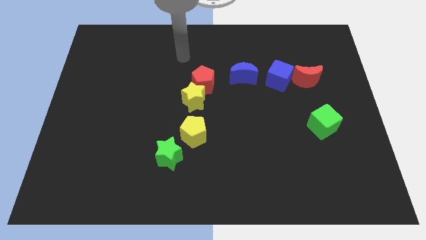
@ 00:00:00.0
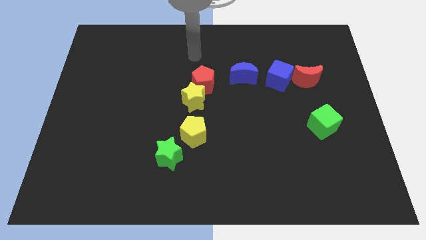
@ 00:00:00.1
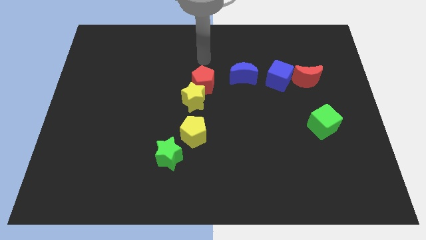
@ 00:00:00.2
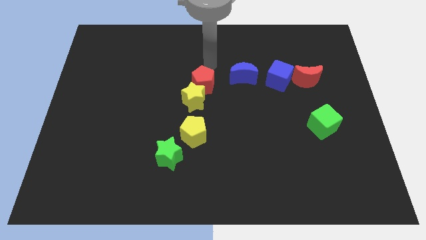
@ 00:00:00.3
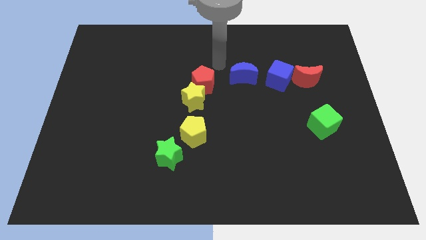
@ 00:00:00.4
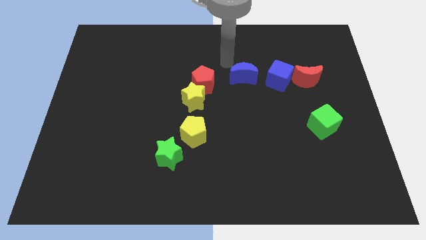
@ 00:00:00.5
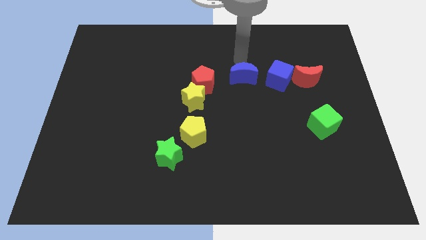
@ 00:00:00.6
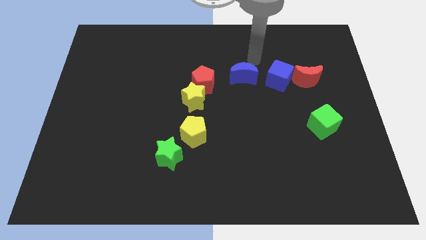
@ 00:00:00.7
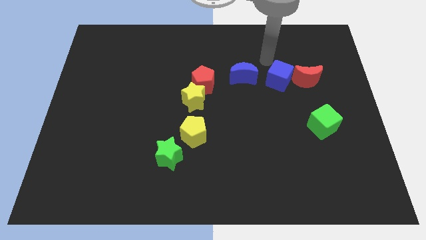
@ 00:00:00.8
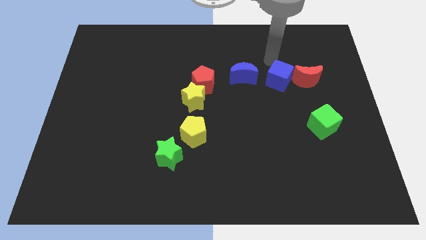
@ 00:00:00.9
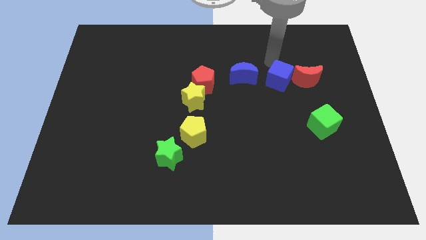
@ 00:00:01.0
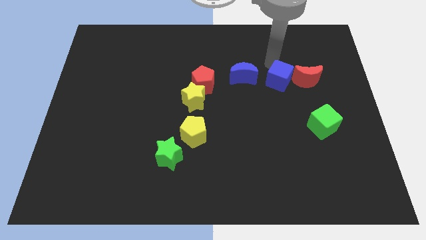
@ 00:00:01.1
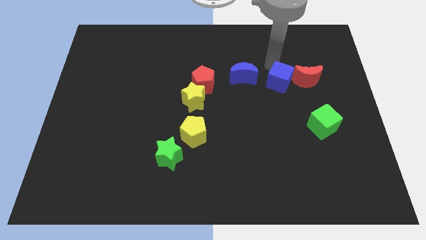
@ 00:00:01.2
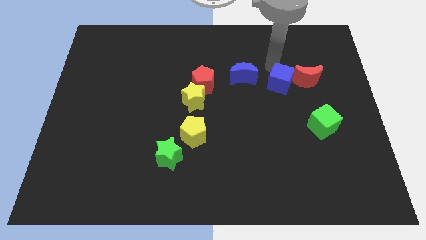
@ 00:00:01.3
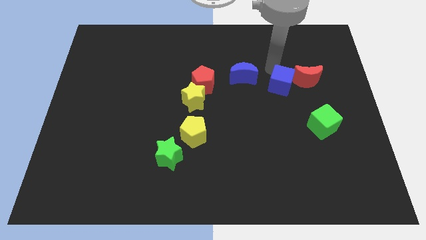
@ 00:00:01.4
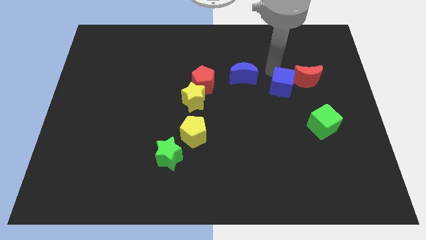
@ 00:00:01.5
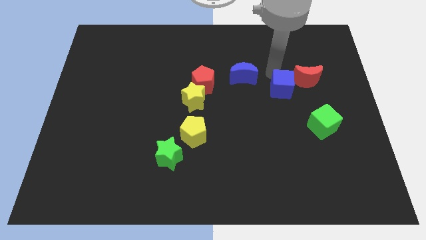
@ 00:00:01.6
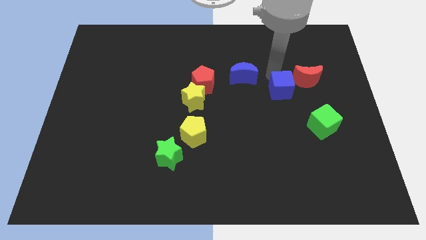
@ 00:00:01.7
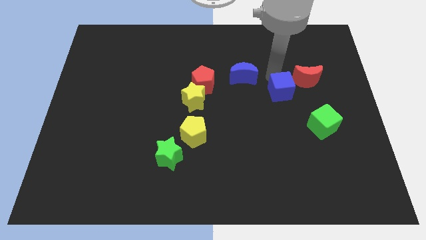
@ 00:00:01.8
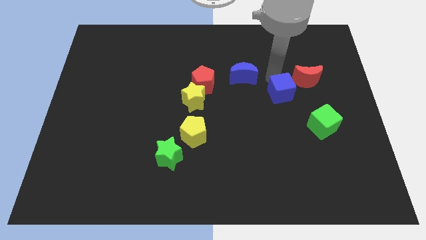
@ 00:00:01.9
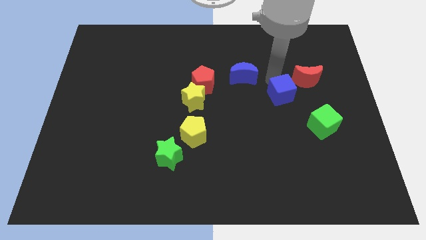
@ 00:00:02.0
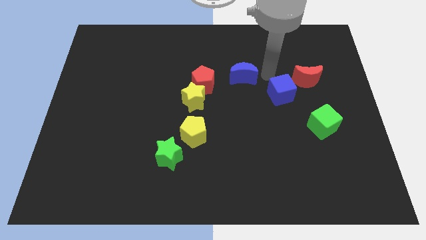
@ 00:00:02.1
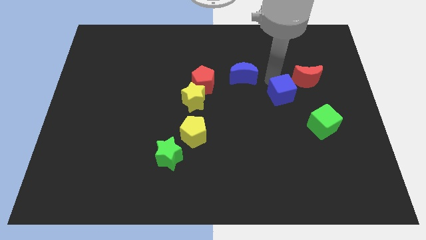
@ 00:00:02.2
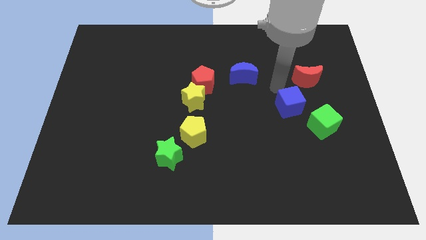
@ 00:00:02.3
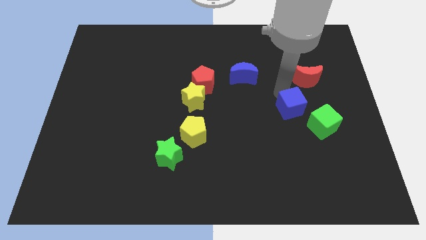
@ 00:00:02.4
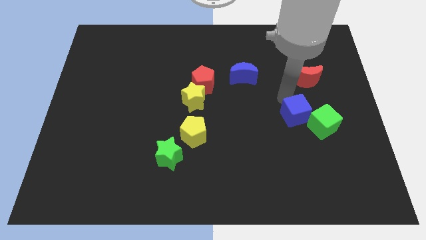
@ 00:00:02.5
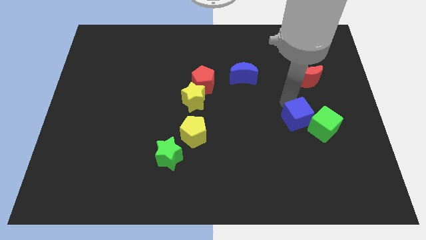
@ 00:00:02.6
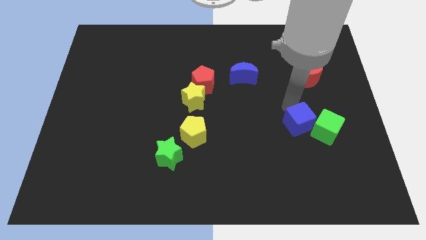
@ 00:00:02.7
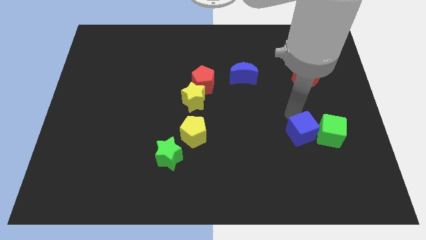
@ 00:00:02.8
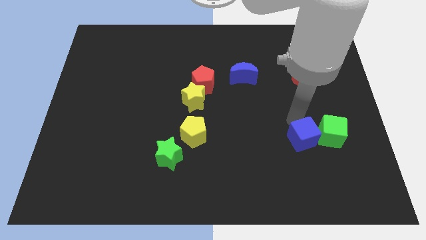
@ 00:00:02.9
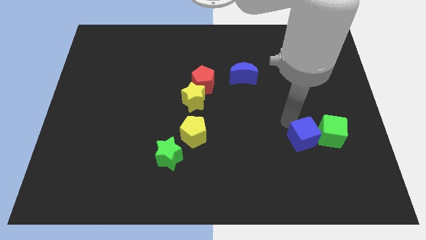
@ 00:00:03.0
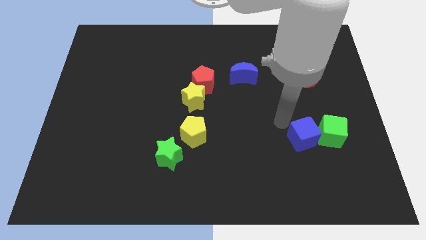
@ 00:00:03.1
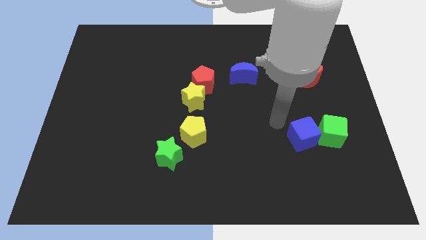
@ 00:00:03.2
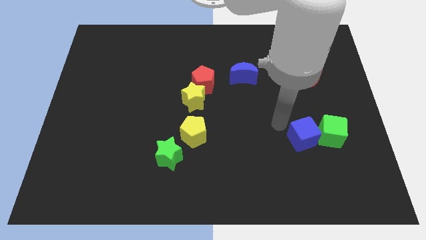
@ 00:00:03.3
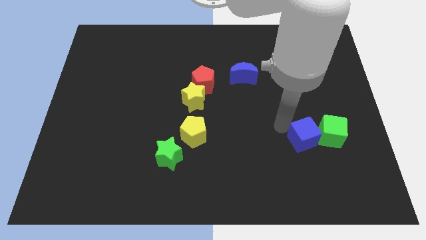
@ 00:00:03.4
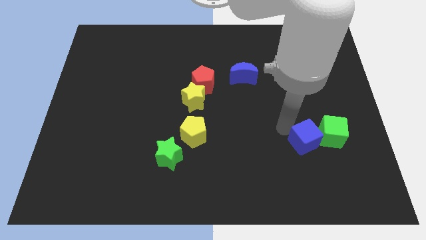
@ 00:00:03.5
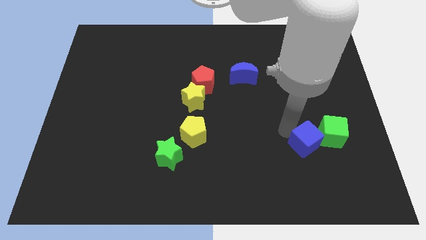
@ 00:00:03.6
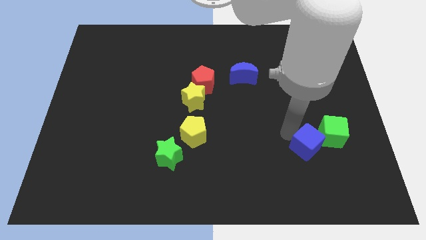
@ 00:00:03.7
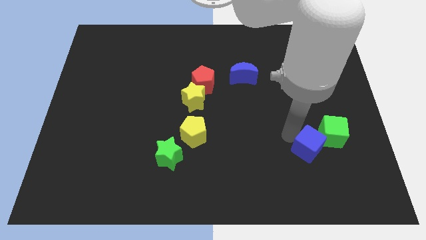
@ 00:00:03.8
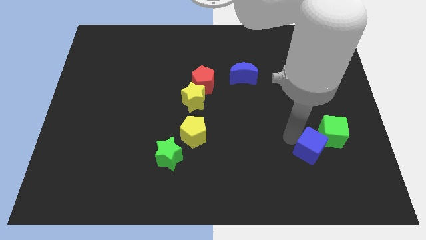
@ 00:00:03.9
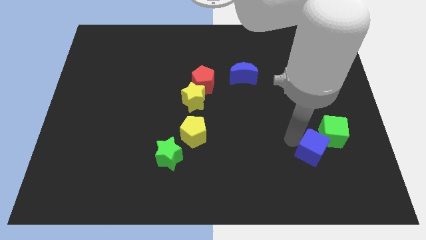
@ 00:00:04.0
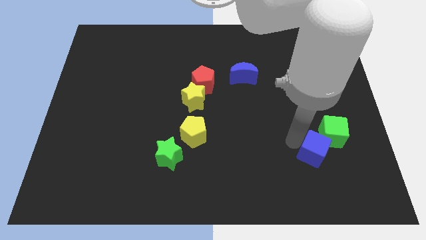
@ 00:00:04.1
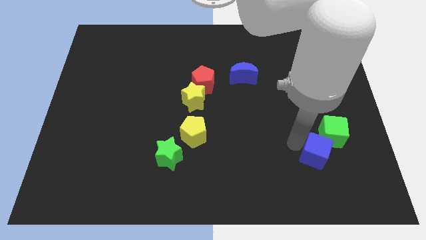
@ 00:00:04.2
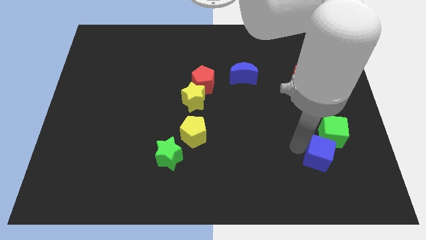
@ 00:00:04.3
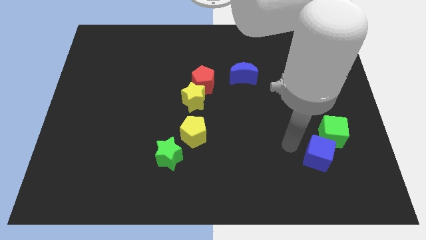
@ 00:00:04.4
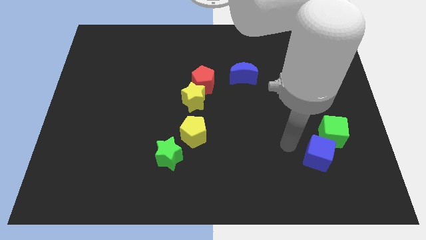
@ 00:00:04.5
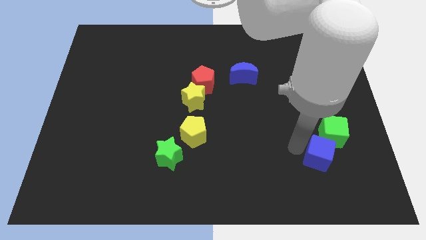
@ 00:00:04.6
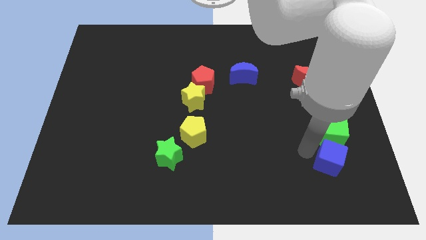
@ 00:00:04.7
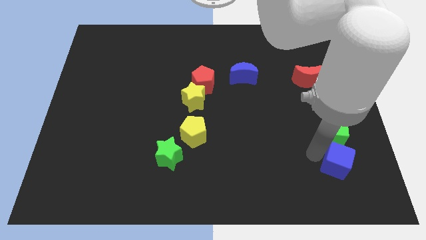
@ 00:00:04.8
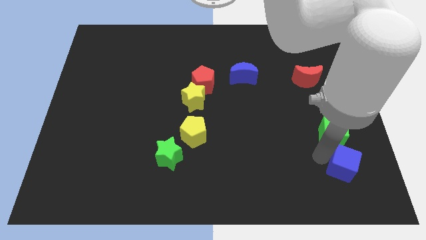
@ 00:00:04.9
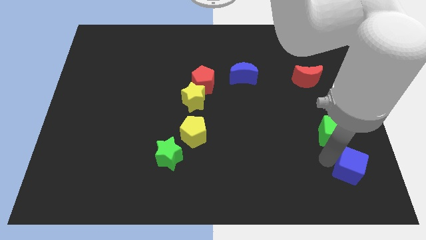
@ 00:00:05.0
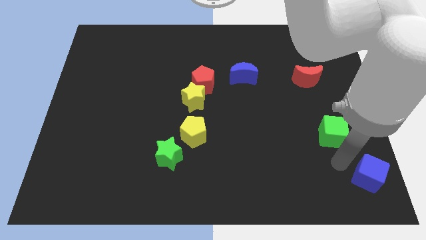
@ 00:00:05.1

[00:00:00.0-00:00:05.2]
move the blue cube to the bottom right corner

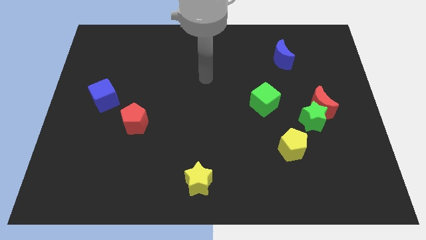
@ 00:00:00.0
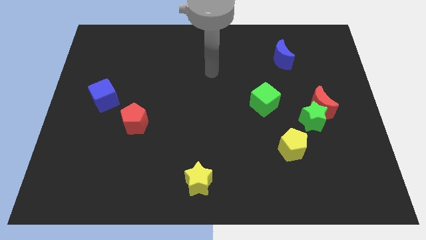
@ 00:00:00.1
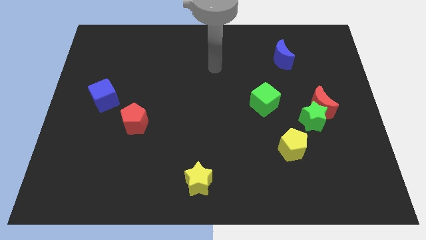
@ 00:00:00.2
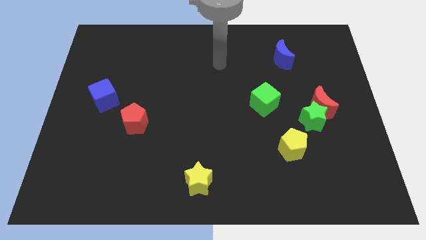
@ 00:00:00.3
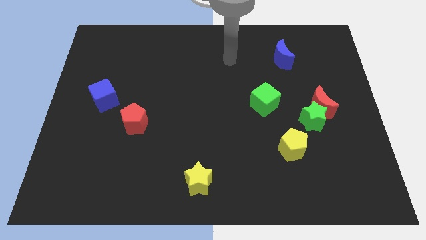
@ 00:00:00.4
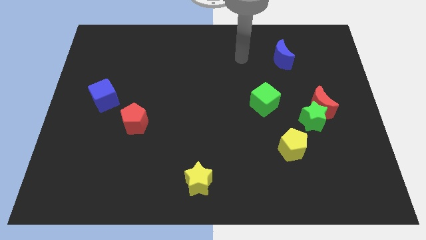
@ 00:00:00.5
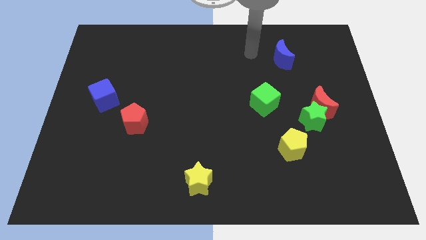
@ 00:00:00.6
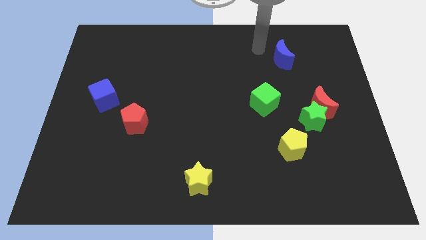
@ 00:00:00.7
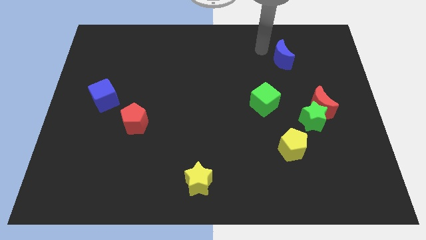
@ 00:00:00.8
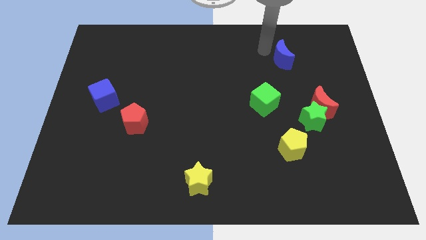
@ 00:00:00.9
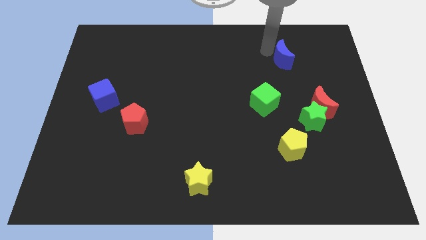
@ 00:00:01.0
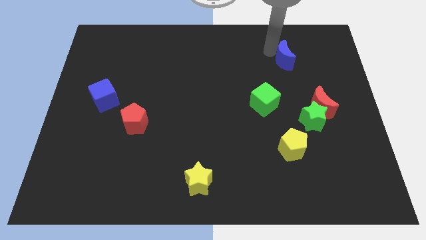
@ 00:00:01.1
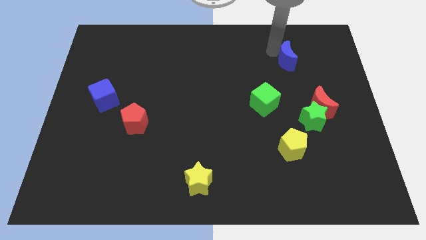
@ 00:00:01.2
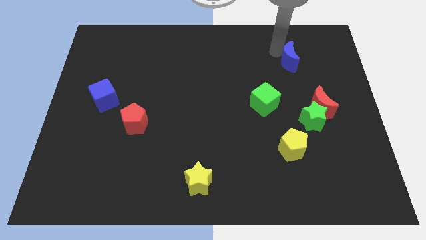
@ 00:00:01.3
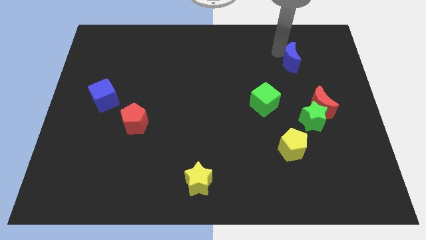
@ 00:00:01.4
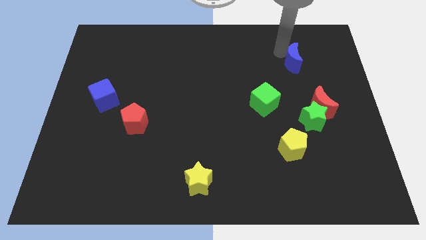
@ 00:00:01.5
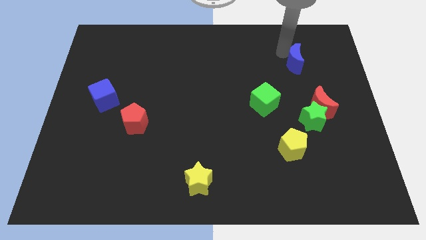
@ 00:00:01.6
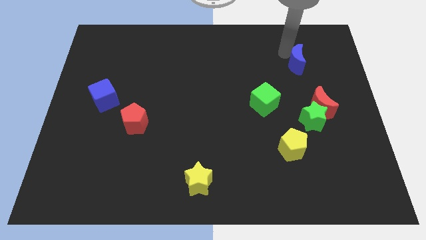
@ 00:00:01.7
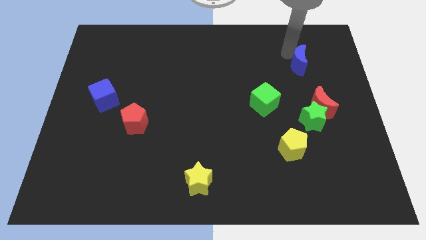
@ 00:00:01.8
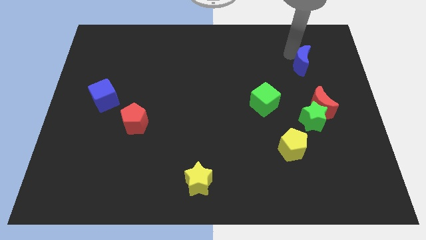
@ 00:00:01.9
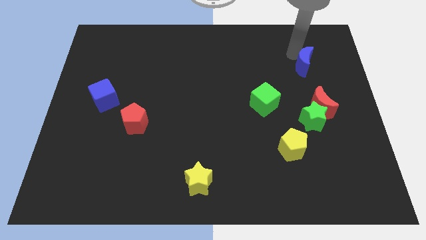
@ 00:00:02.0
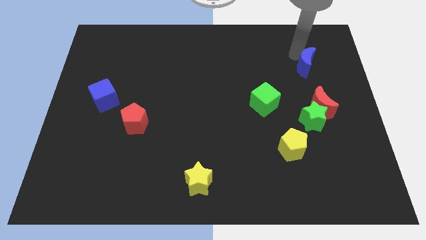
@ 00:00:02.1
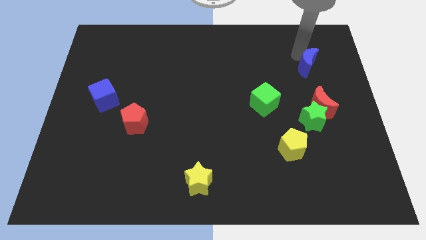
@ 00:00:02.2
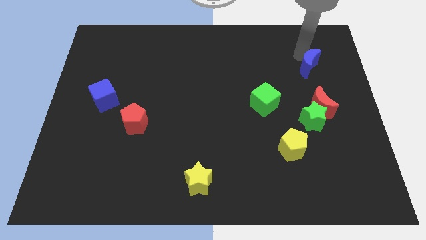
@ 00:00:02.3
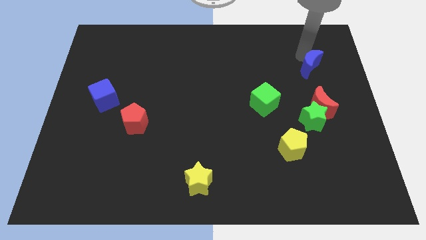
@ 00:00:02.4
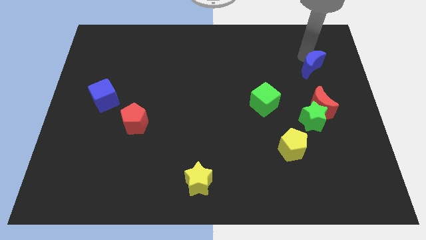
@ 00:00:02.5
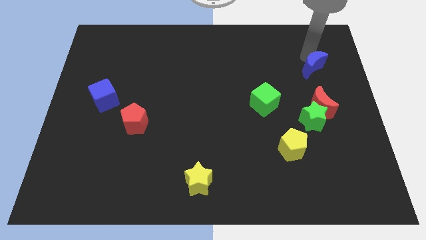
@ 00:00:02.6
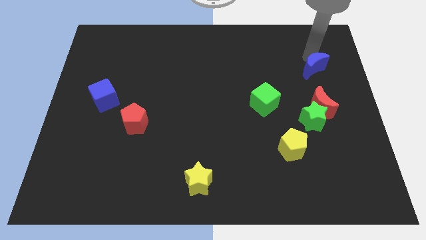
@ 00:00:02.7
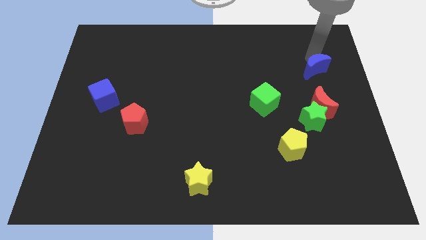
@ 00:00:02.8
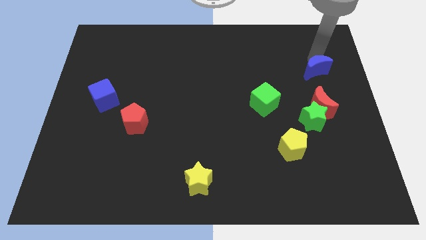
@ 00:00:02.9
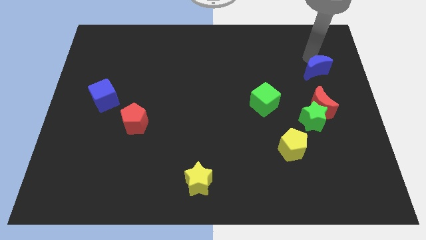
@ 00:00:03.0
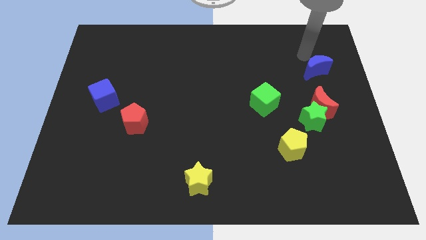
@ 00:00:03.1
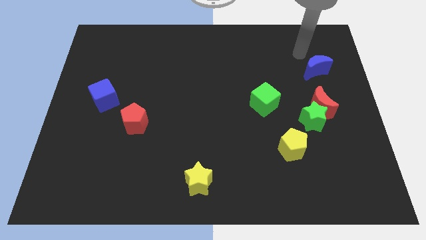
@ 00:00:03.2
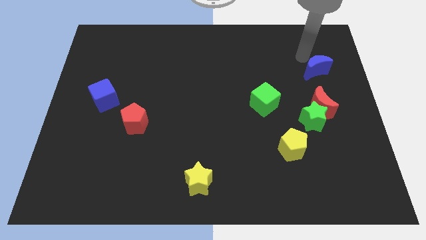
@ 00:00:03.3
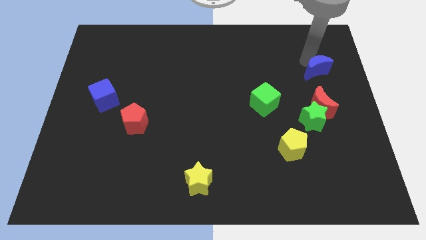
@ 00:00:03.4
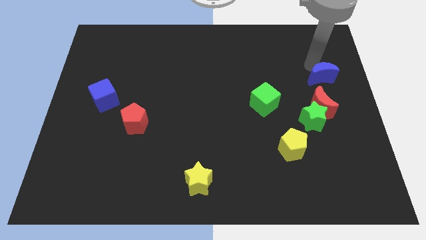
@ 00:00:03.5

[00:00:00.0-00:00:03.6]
move the blue moon to the right side of the board
